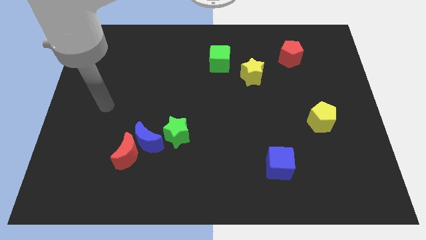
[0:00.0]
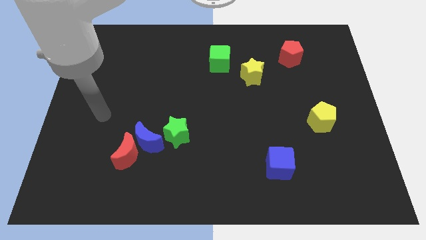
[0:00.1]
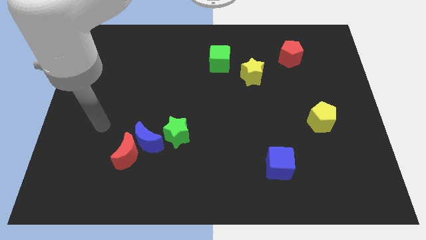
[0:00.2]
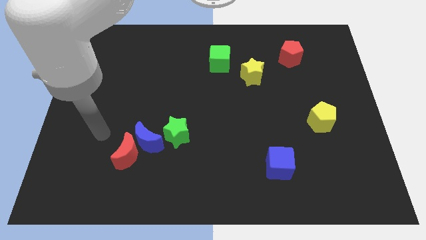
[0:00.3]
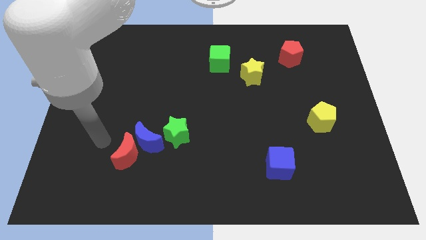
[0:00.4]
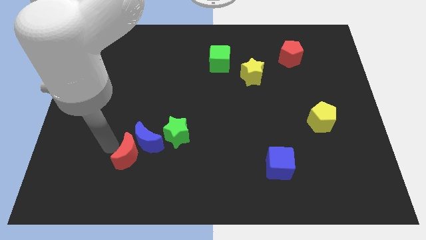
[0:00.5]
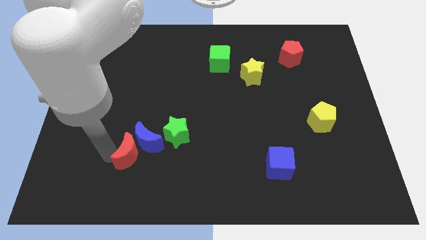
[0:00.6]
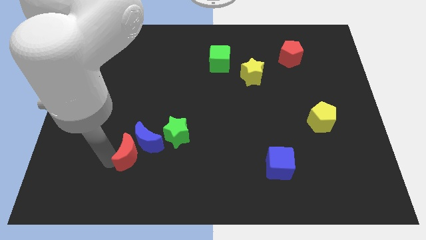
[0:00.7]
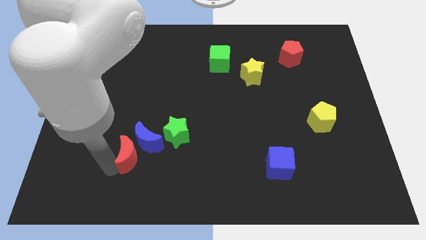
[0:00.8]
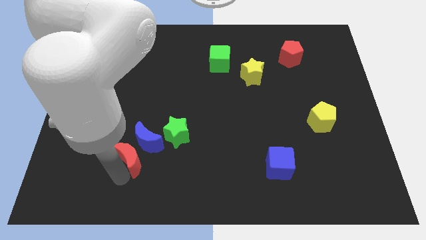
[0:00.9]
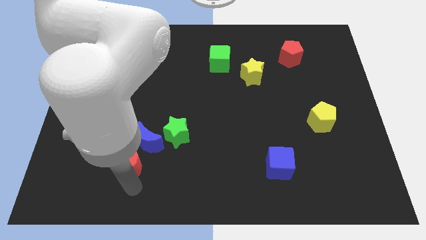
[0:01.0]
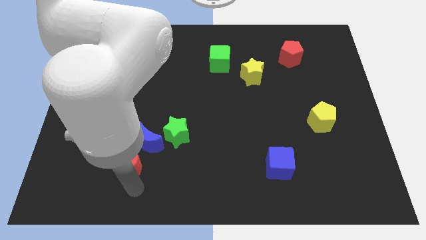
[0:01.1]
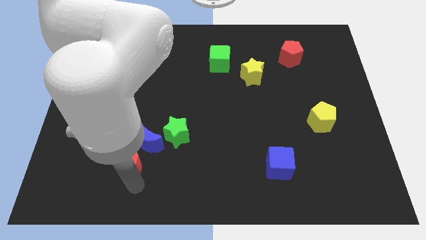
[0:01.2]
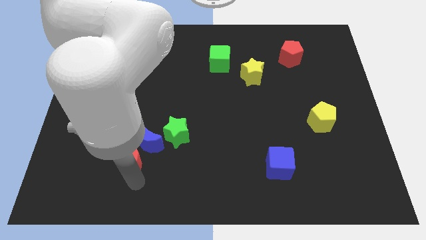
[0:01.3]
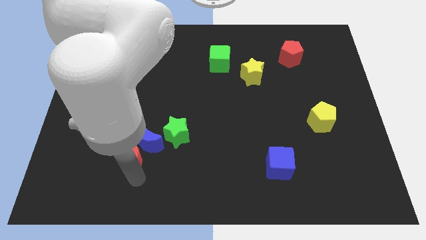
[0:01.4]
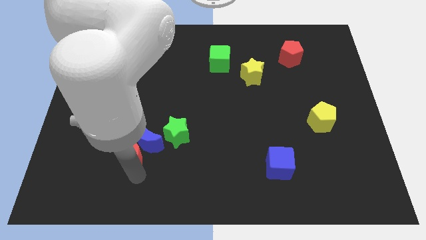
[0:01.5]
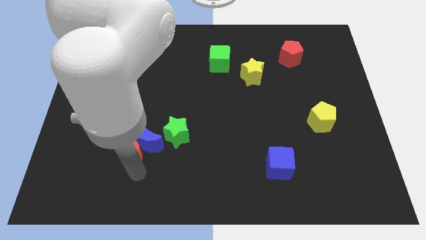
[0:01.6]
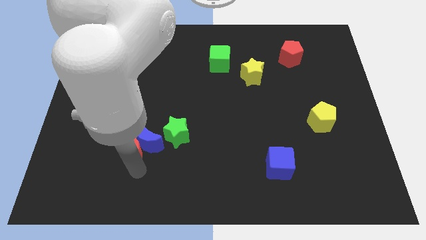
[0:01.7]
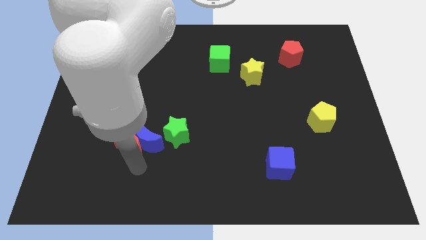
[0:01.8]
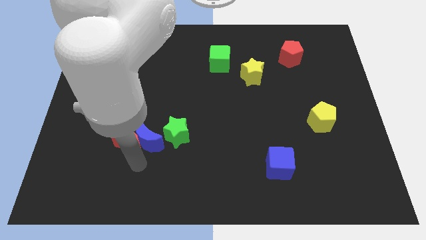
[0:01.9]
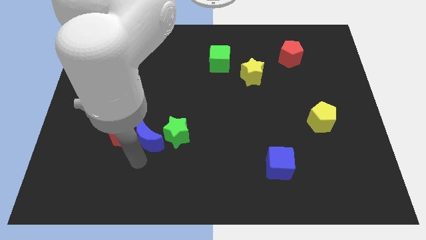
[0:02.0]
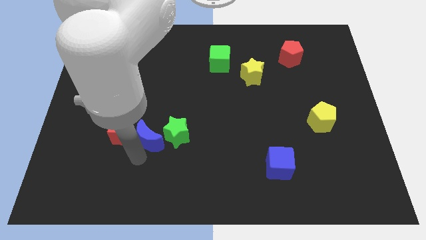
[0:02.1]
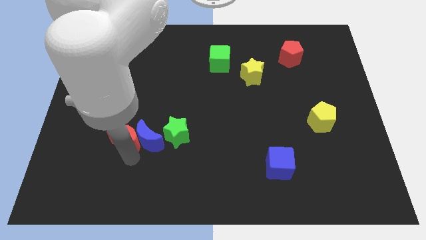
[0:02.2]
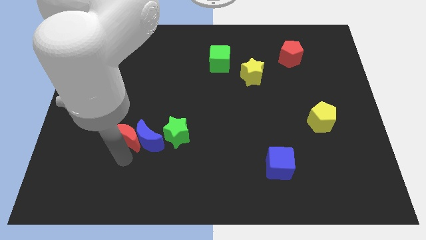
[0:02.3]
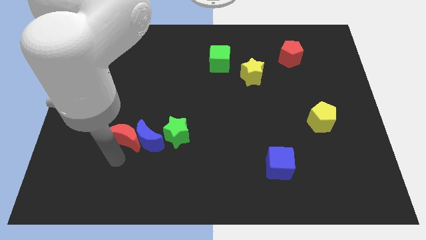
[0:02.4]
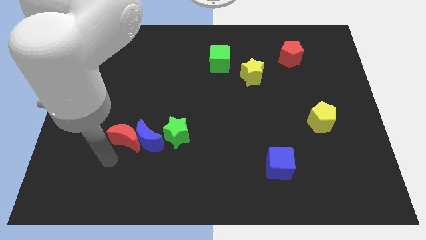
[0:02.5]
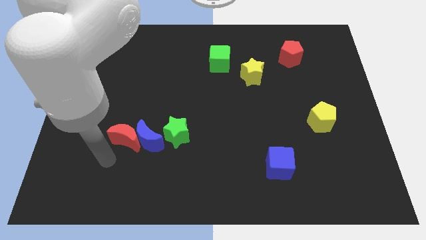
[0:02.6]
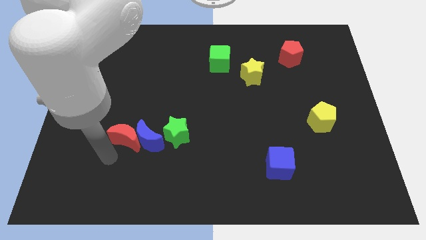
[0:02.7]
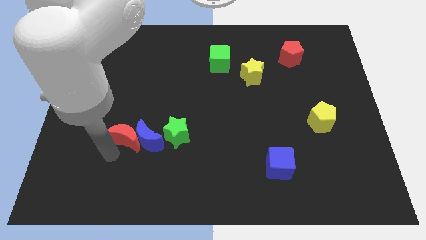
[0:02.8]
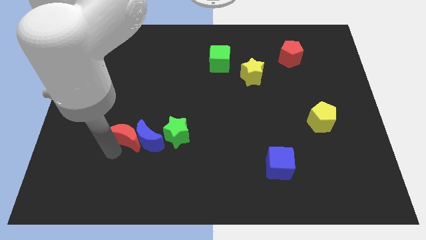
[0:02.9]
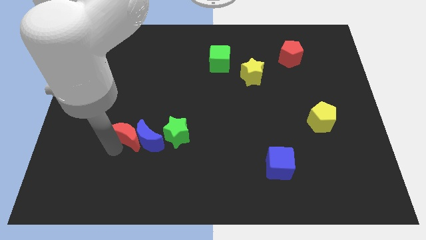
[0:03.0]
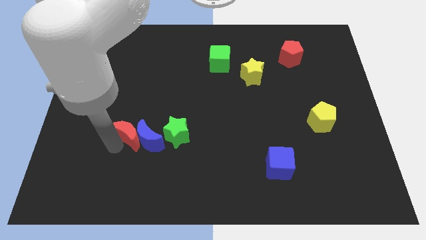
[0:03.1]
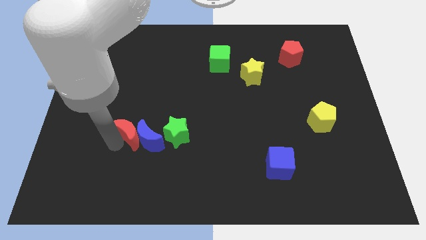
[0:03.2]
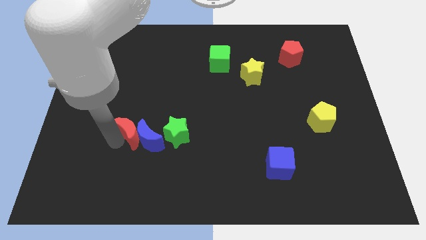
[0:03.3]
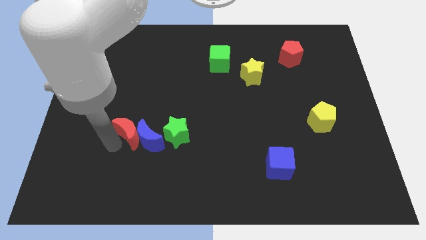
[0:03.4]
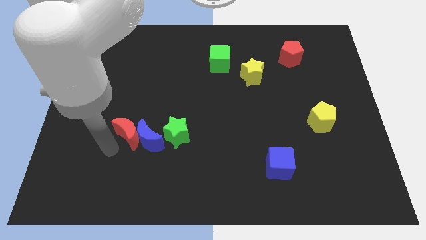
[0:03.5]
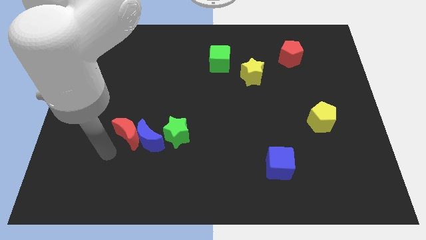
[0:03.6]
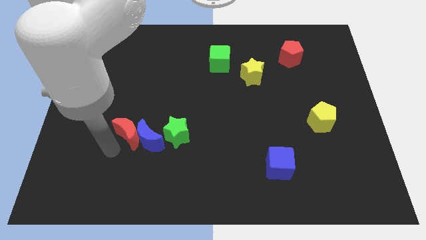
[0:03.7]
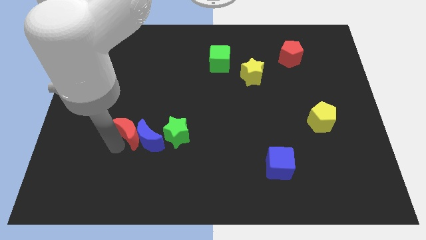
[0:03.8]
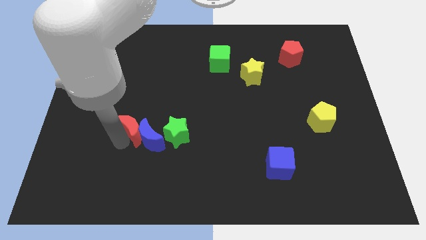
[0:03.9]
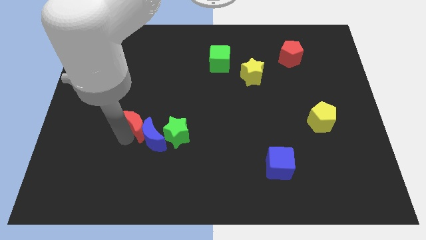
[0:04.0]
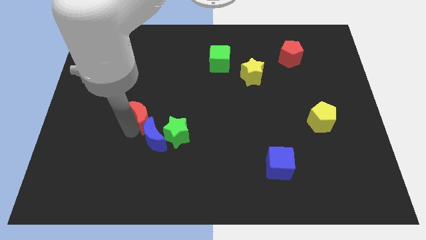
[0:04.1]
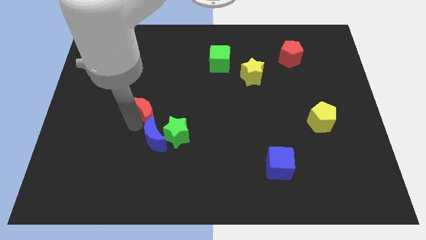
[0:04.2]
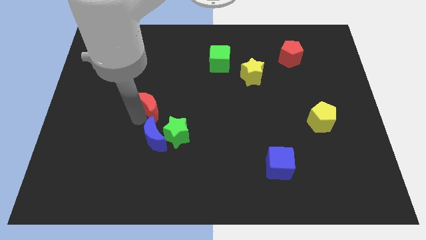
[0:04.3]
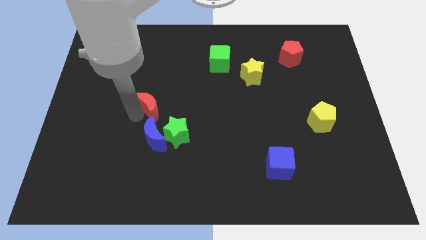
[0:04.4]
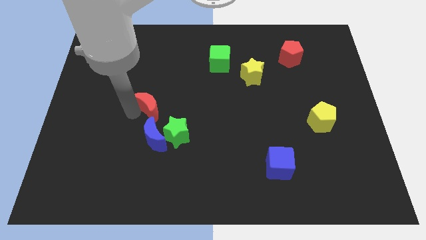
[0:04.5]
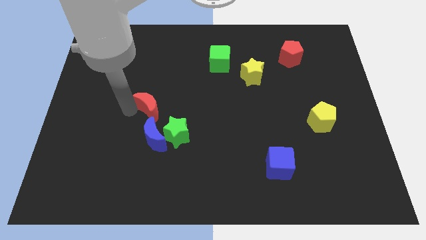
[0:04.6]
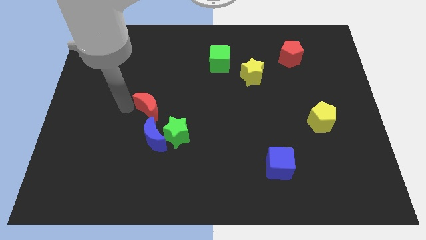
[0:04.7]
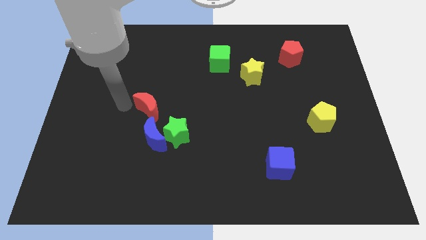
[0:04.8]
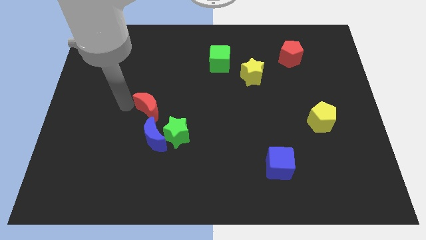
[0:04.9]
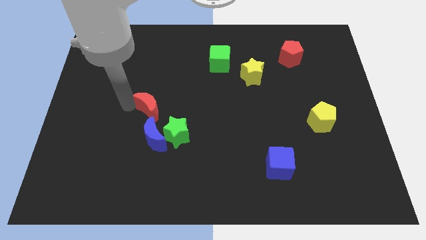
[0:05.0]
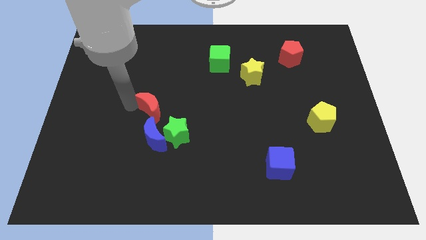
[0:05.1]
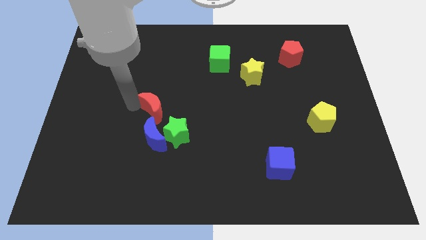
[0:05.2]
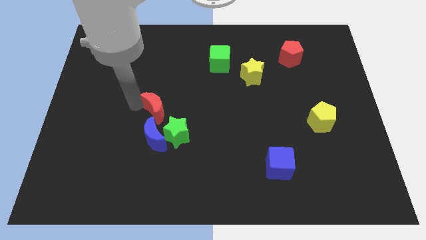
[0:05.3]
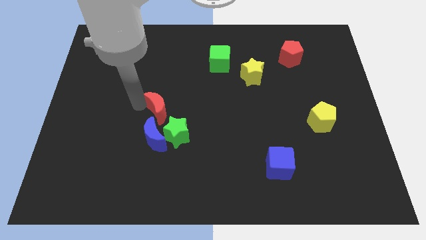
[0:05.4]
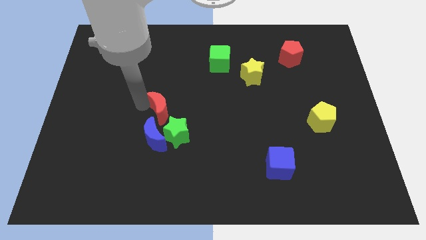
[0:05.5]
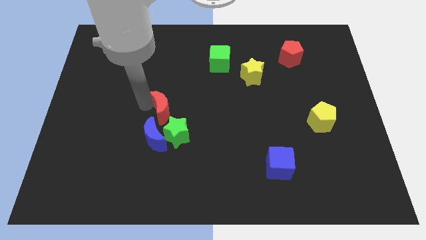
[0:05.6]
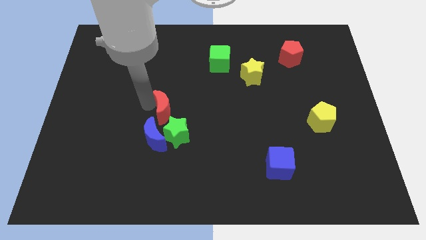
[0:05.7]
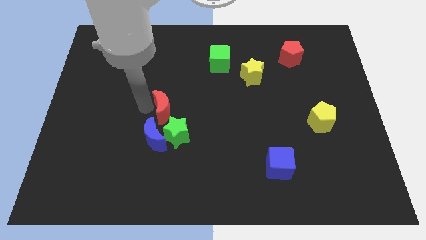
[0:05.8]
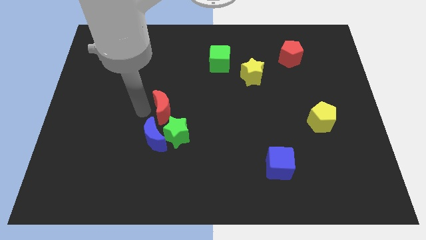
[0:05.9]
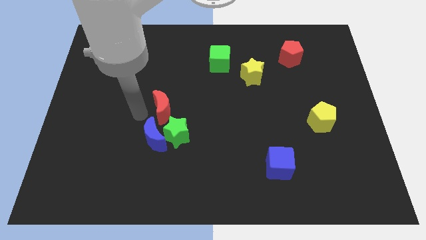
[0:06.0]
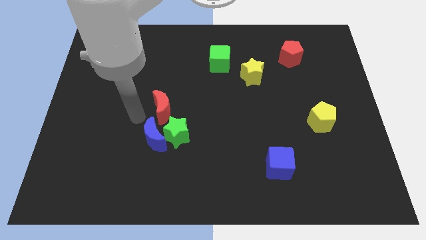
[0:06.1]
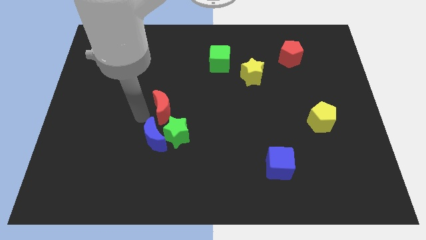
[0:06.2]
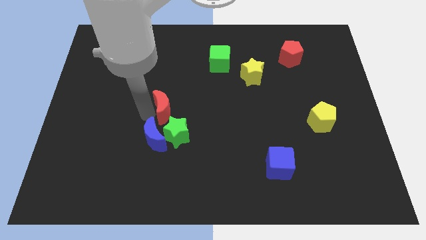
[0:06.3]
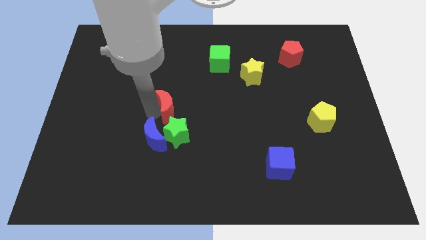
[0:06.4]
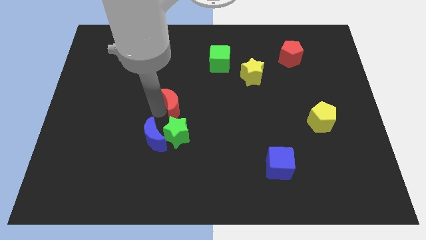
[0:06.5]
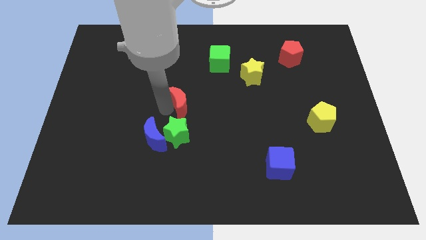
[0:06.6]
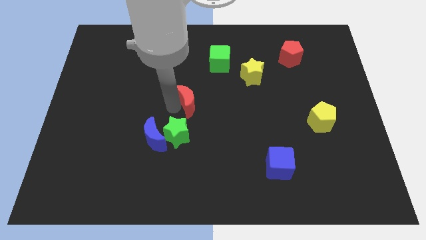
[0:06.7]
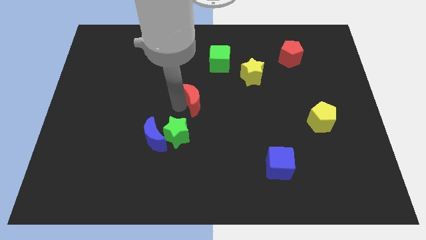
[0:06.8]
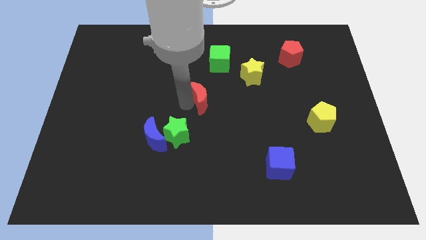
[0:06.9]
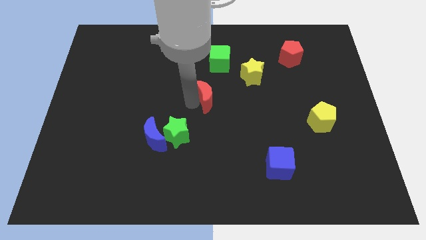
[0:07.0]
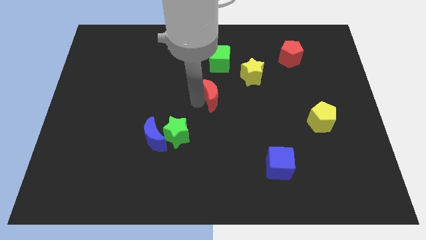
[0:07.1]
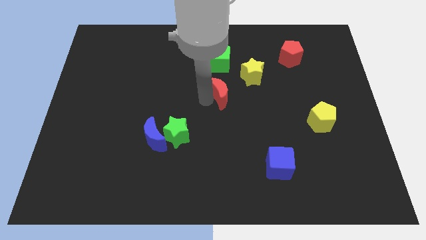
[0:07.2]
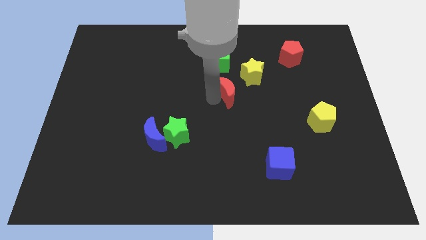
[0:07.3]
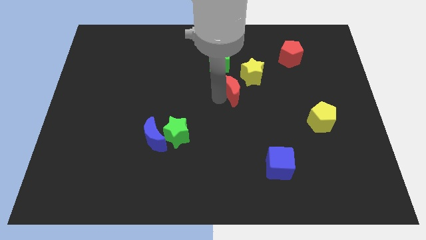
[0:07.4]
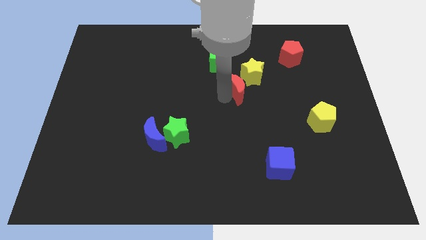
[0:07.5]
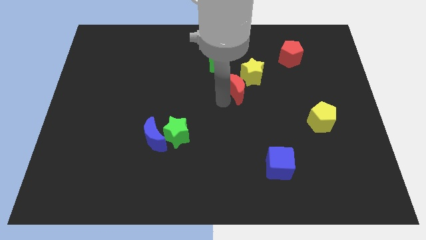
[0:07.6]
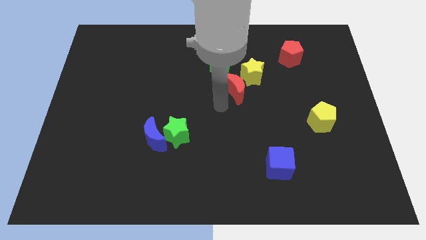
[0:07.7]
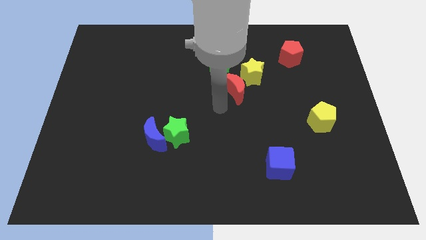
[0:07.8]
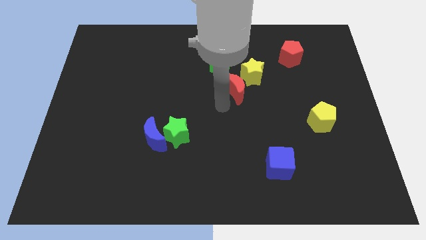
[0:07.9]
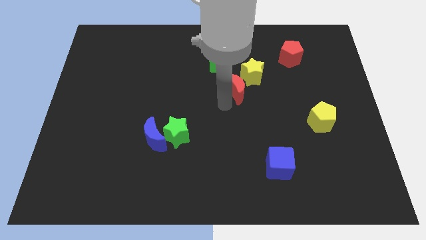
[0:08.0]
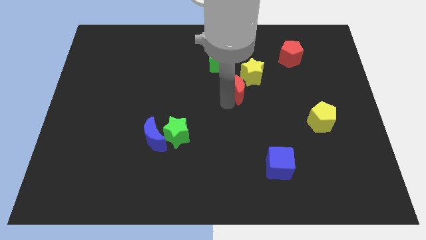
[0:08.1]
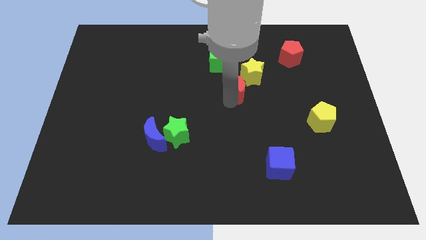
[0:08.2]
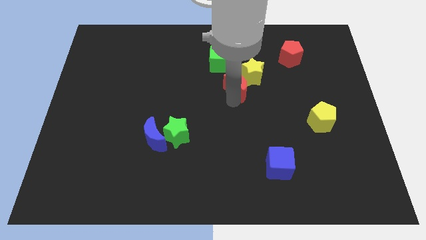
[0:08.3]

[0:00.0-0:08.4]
push the red moon close to the yellow star
